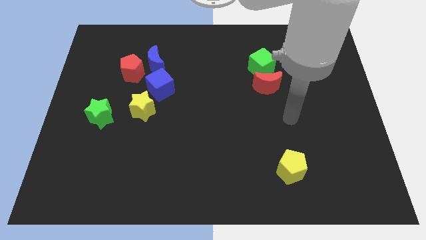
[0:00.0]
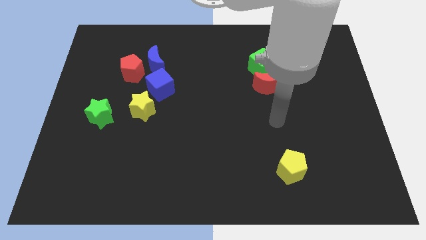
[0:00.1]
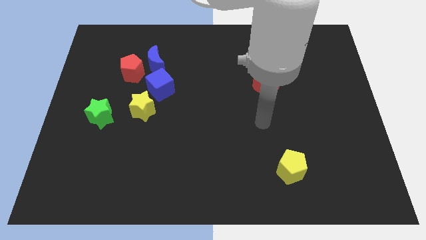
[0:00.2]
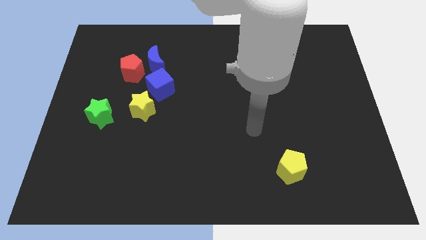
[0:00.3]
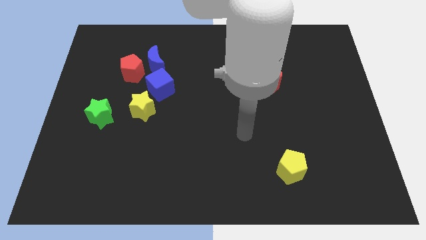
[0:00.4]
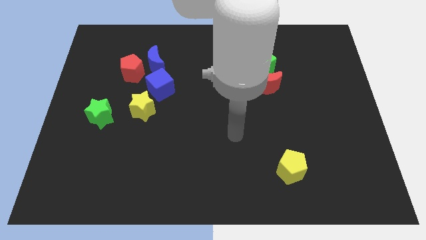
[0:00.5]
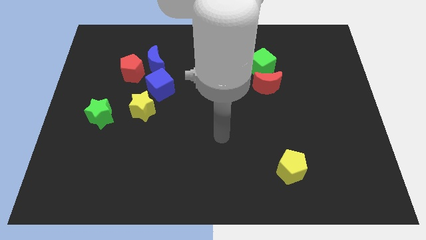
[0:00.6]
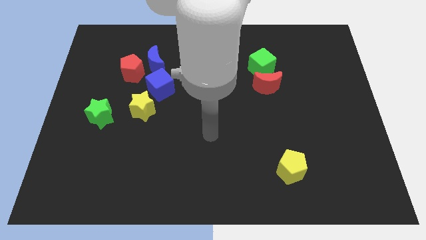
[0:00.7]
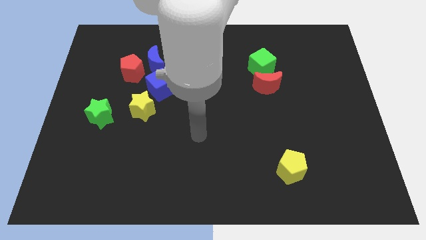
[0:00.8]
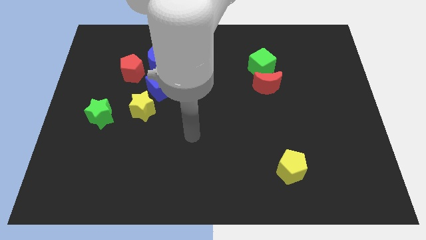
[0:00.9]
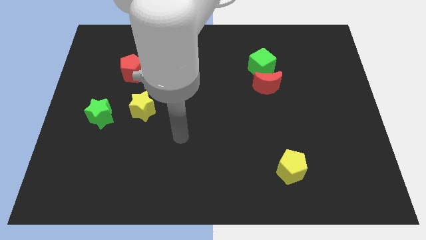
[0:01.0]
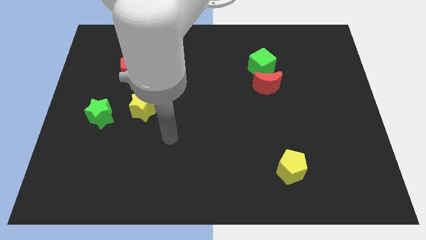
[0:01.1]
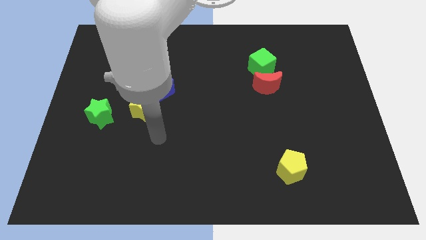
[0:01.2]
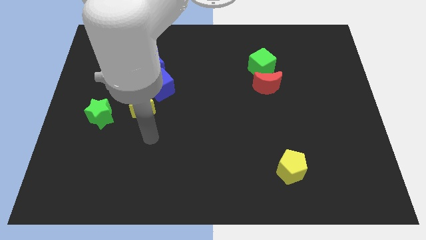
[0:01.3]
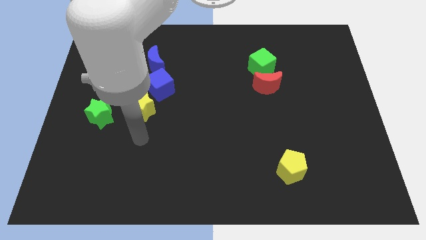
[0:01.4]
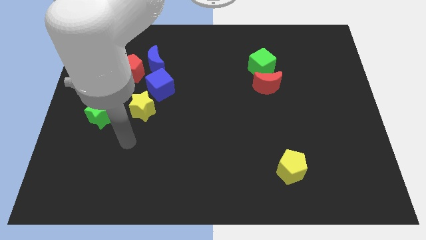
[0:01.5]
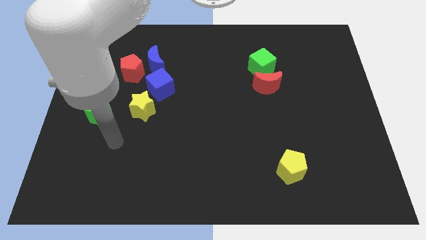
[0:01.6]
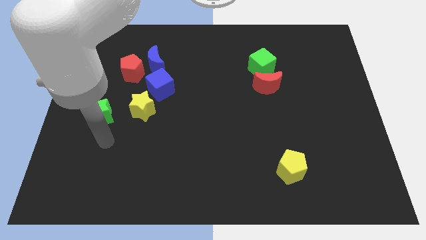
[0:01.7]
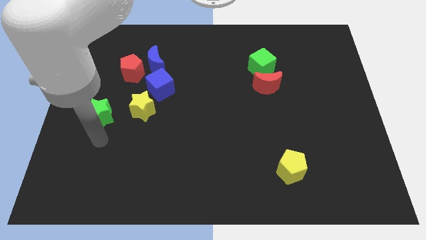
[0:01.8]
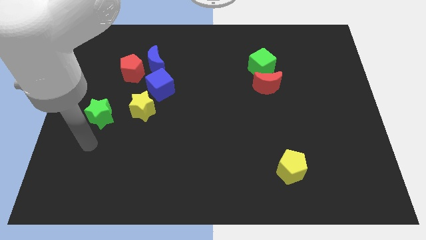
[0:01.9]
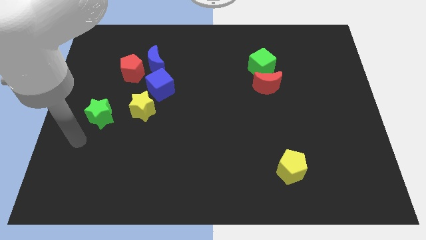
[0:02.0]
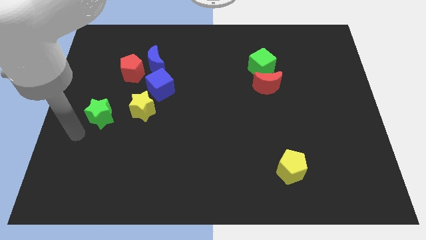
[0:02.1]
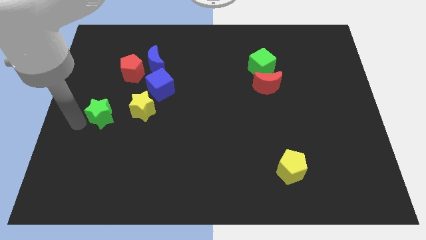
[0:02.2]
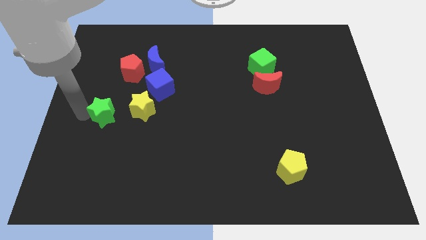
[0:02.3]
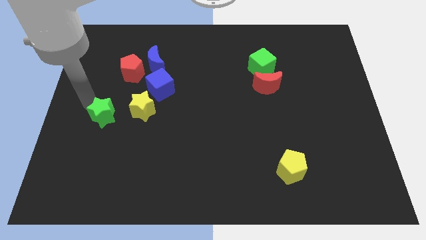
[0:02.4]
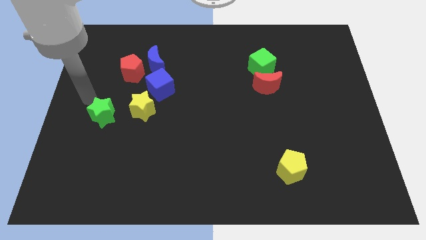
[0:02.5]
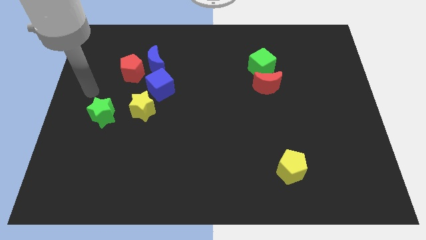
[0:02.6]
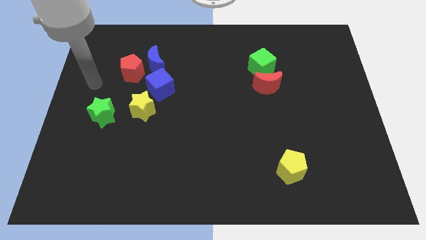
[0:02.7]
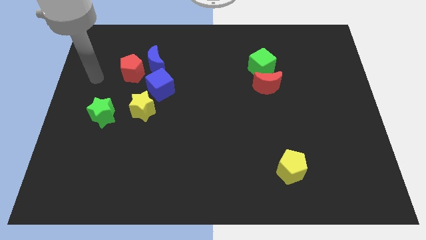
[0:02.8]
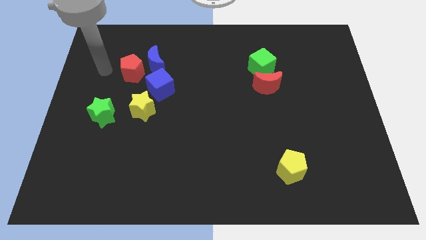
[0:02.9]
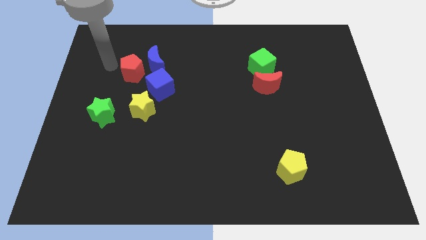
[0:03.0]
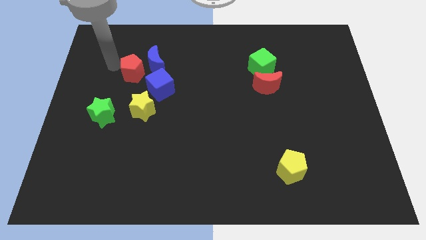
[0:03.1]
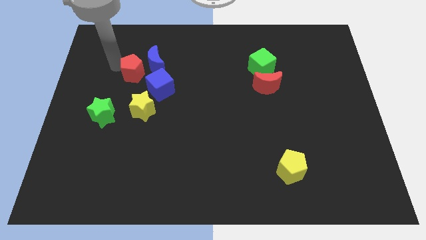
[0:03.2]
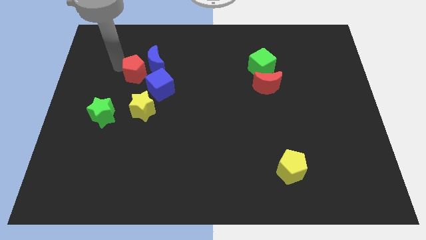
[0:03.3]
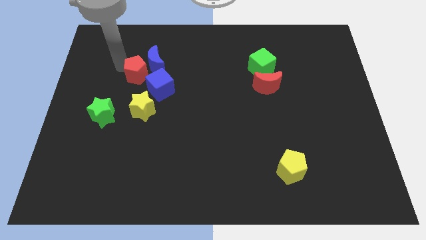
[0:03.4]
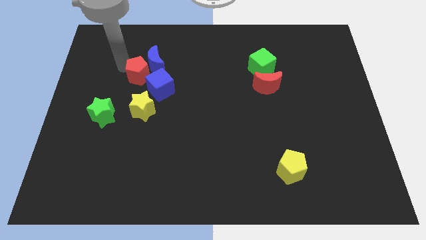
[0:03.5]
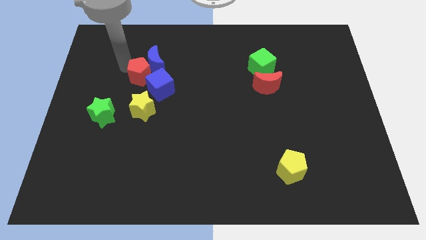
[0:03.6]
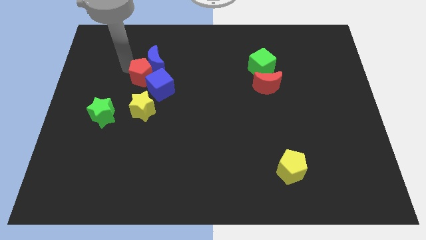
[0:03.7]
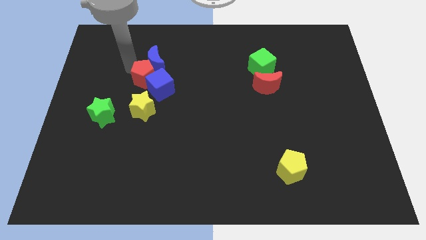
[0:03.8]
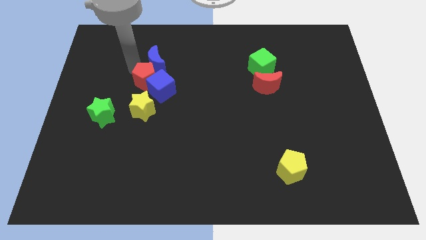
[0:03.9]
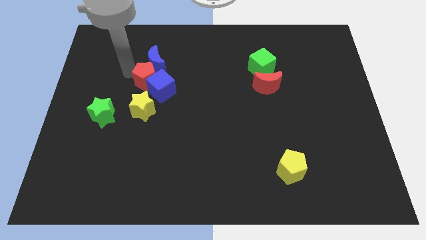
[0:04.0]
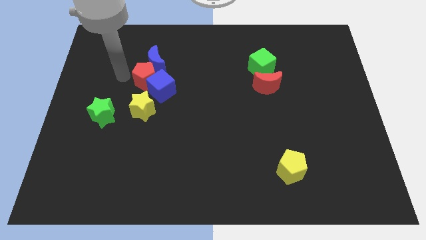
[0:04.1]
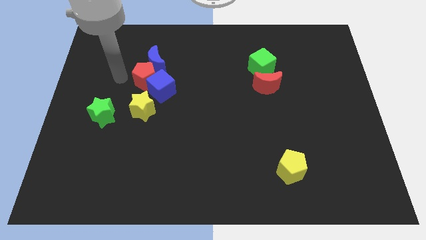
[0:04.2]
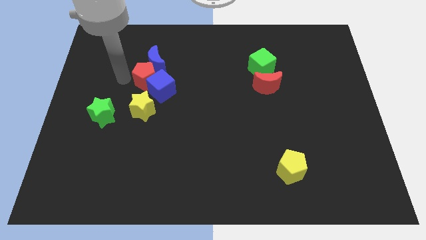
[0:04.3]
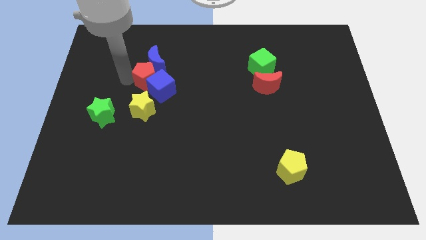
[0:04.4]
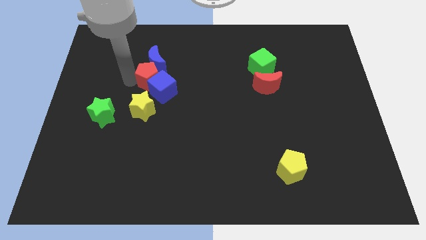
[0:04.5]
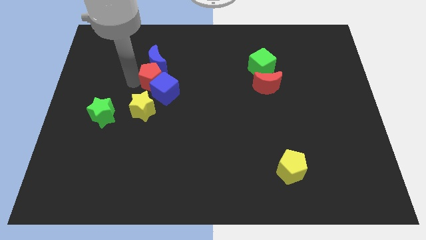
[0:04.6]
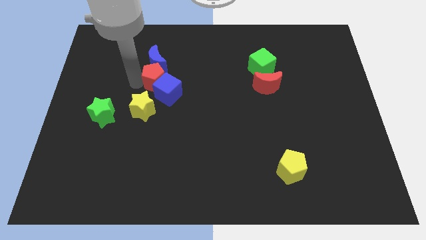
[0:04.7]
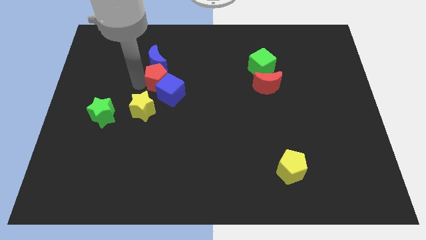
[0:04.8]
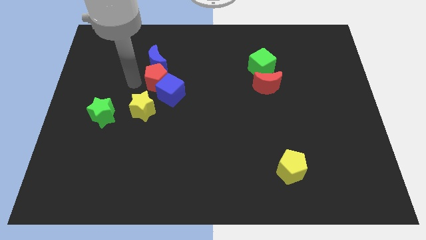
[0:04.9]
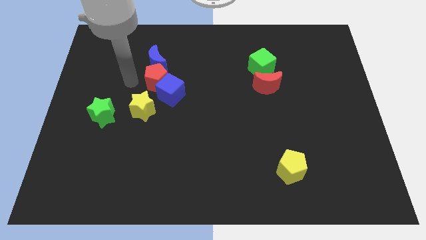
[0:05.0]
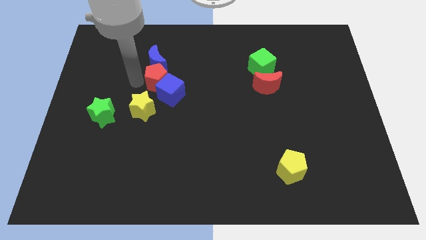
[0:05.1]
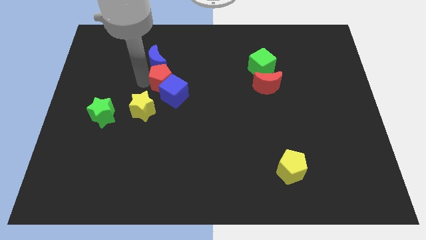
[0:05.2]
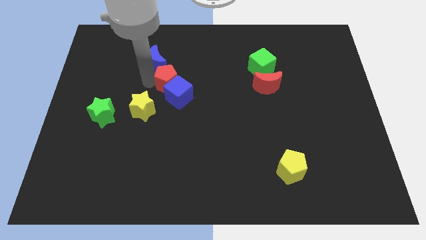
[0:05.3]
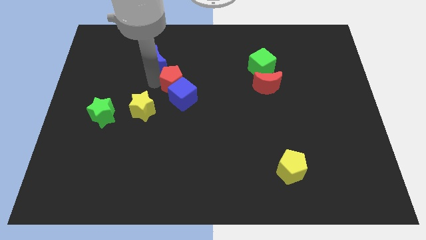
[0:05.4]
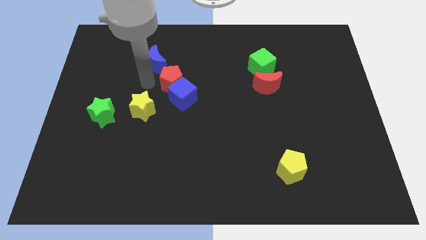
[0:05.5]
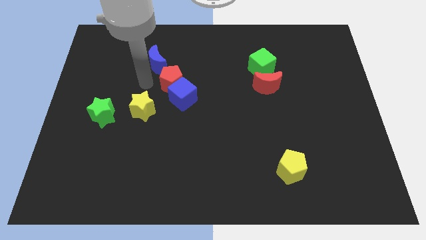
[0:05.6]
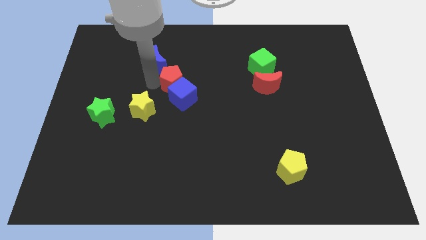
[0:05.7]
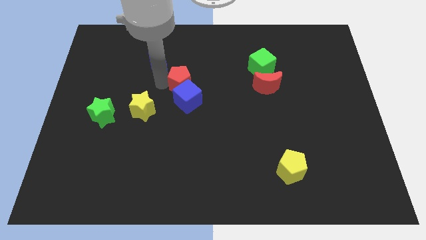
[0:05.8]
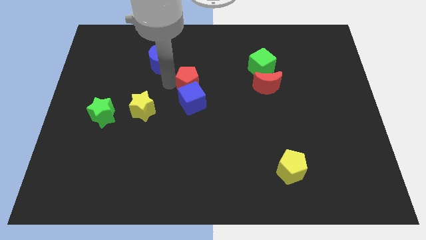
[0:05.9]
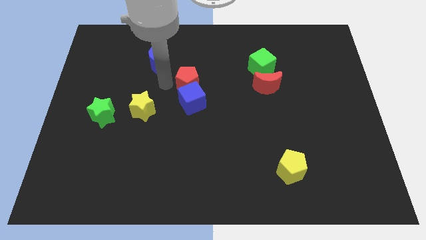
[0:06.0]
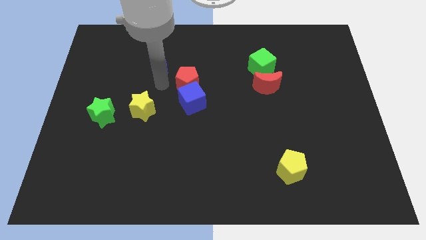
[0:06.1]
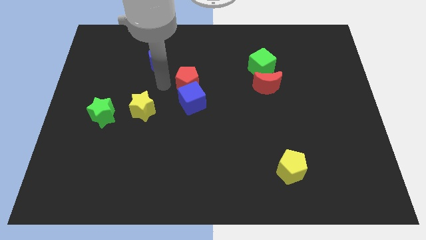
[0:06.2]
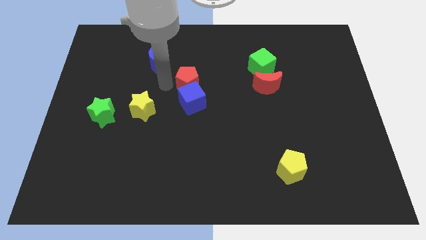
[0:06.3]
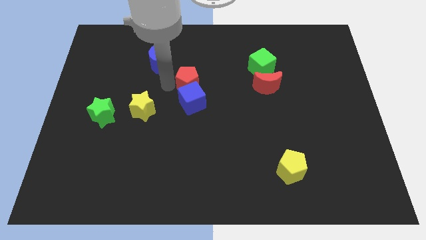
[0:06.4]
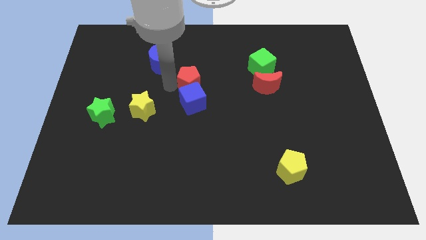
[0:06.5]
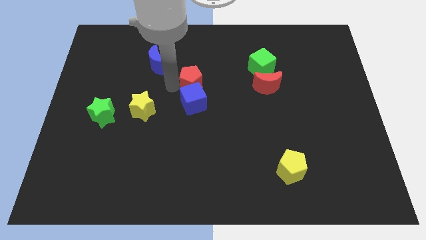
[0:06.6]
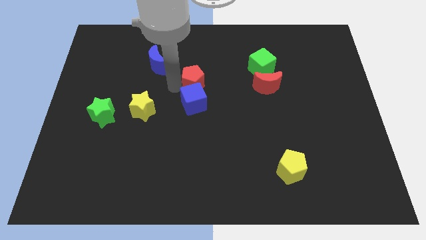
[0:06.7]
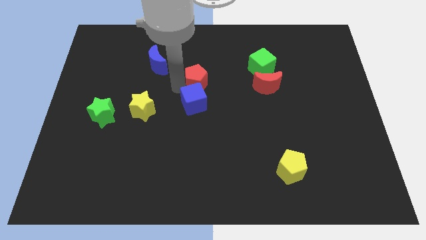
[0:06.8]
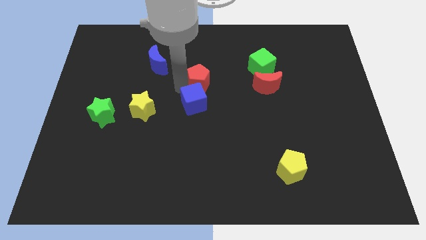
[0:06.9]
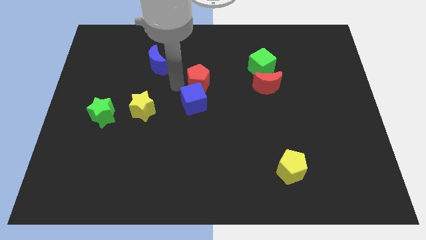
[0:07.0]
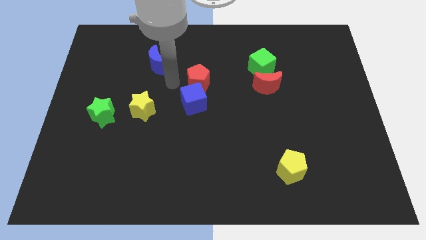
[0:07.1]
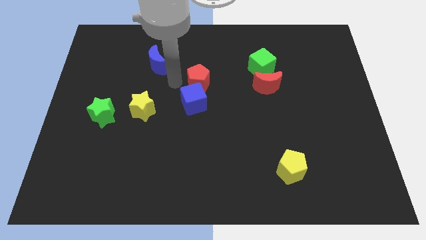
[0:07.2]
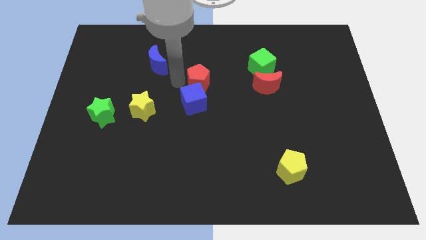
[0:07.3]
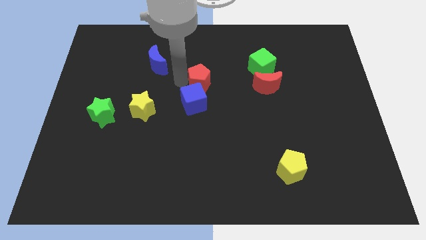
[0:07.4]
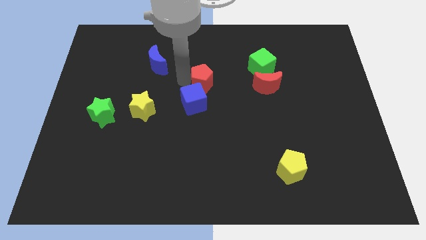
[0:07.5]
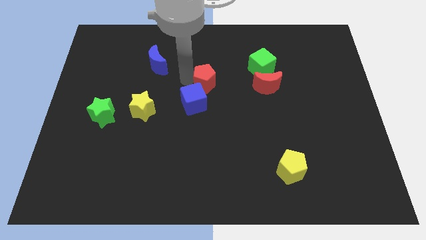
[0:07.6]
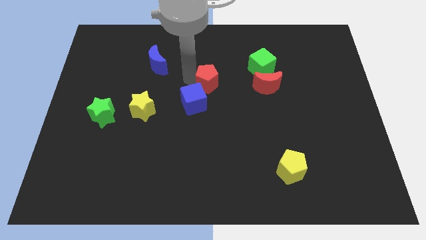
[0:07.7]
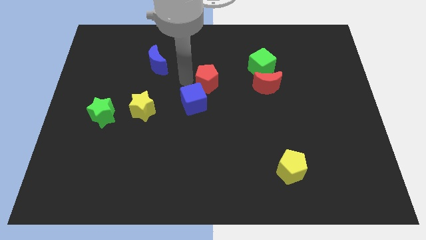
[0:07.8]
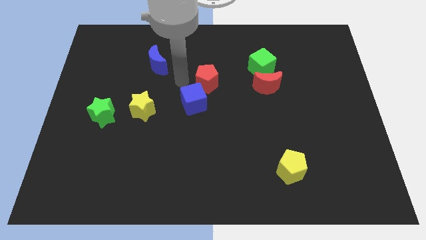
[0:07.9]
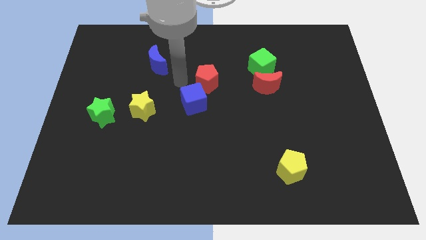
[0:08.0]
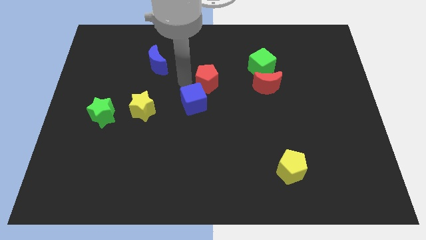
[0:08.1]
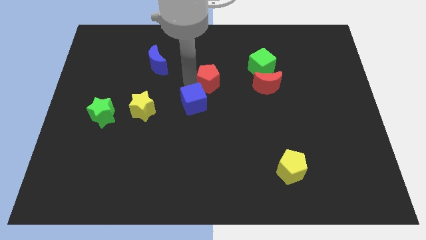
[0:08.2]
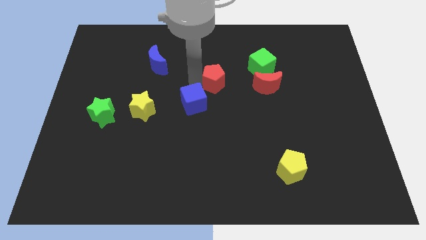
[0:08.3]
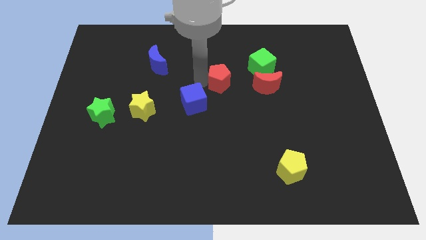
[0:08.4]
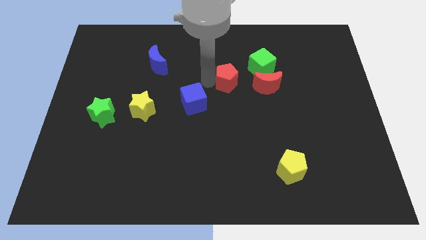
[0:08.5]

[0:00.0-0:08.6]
move the red pentagon diagonally down and to the left of the green cube
